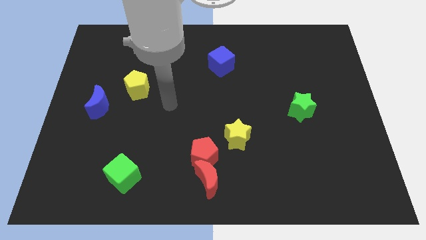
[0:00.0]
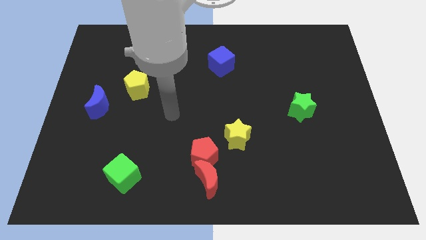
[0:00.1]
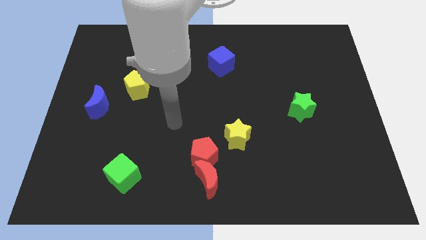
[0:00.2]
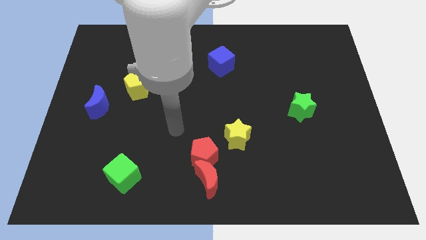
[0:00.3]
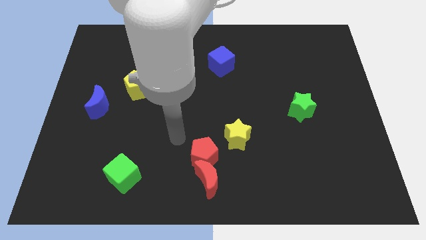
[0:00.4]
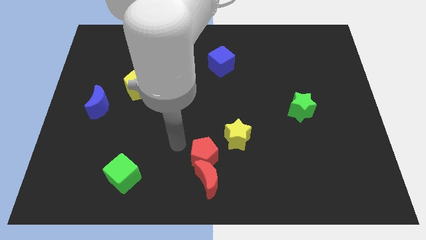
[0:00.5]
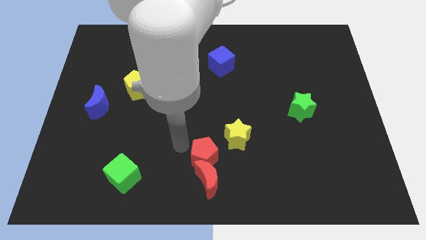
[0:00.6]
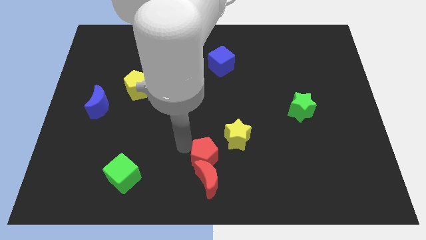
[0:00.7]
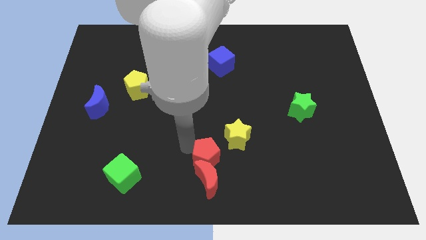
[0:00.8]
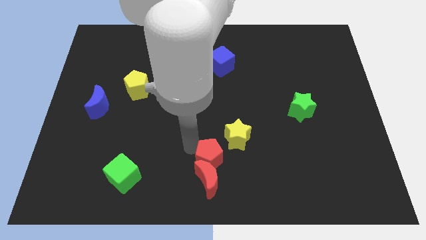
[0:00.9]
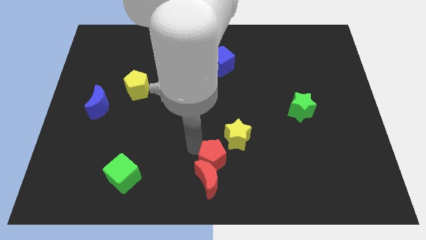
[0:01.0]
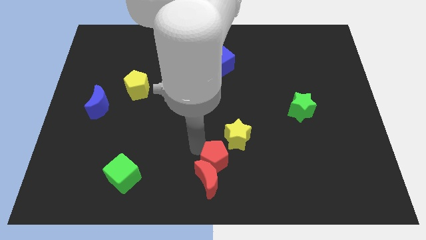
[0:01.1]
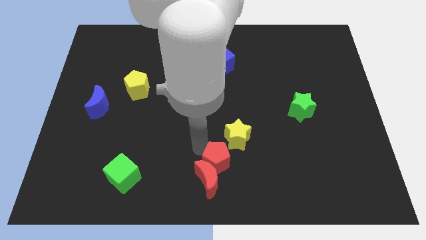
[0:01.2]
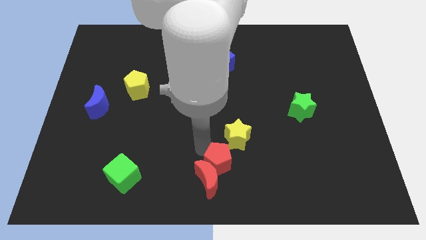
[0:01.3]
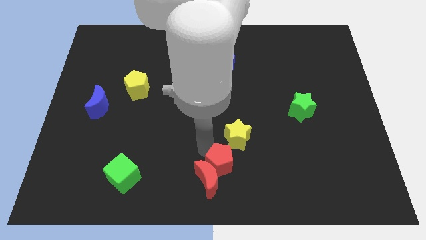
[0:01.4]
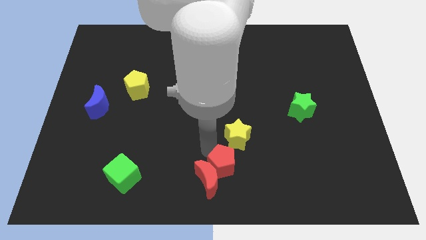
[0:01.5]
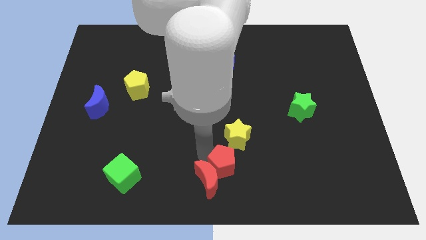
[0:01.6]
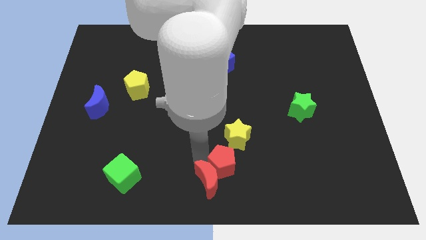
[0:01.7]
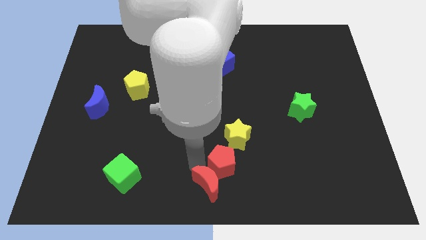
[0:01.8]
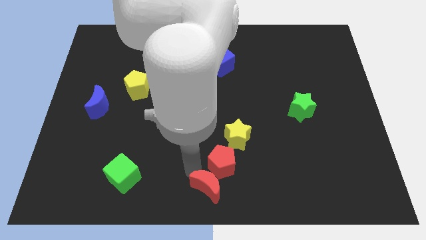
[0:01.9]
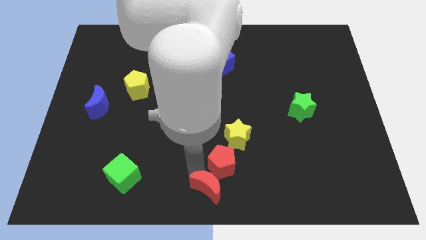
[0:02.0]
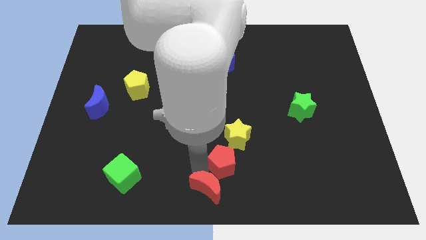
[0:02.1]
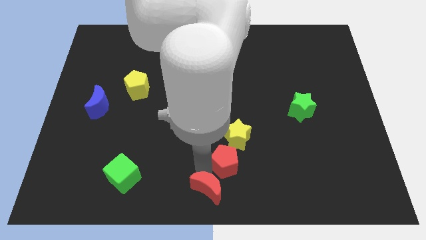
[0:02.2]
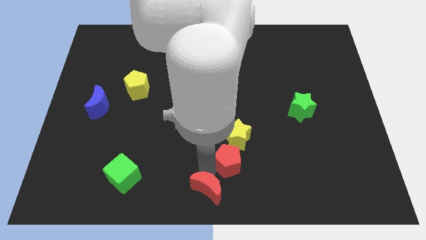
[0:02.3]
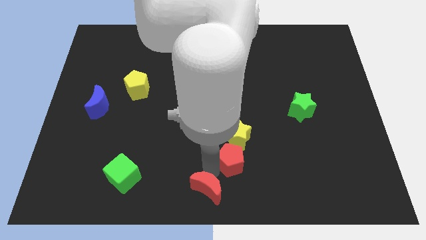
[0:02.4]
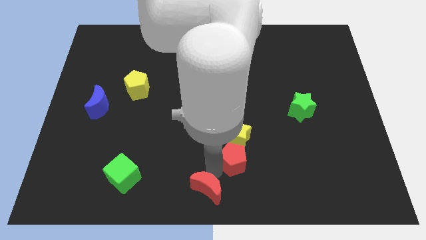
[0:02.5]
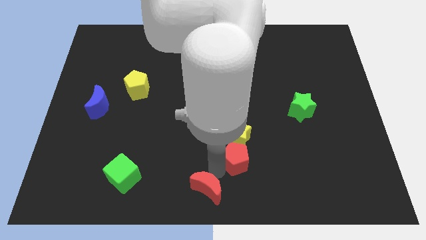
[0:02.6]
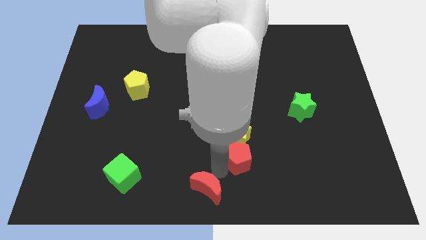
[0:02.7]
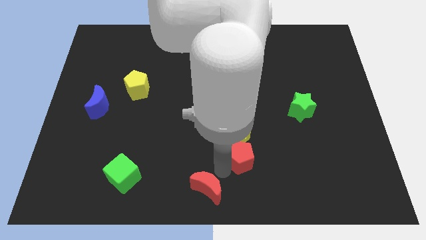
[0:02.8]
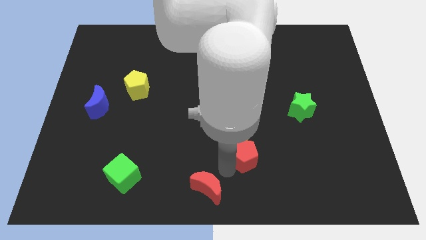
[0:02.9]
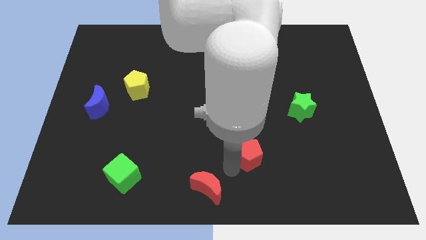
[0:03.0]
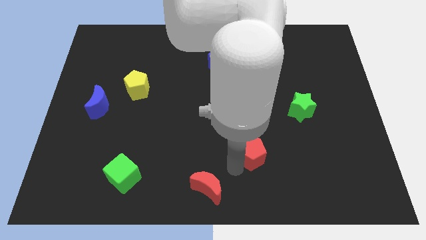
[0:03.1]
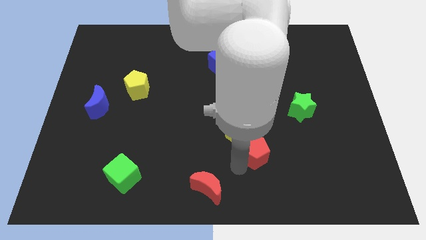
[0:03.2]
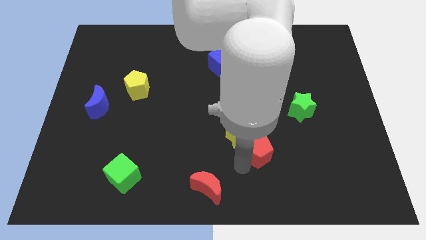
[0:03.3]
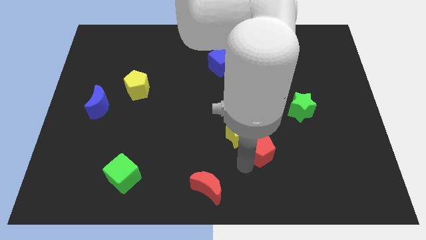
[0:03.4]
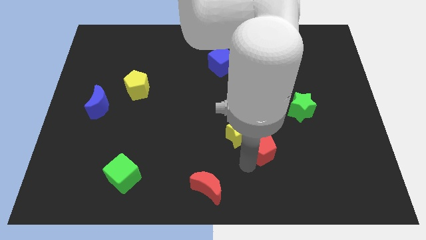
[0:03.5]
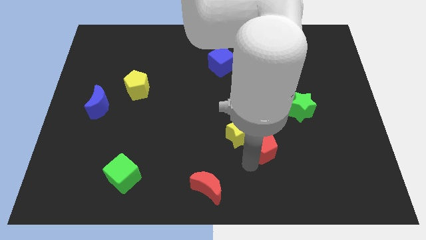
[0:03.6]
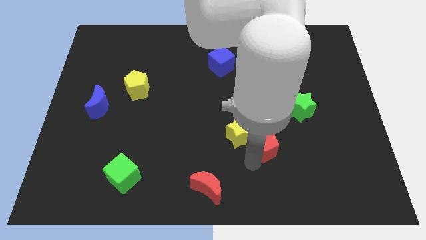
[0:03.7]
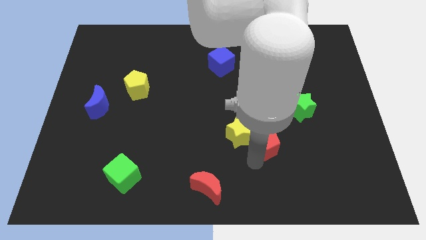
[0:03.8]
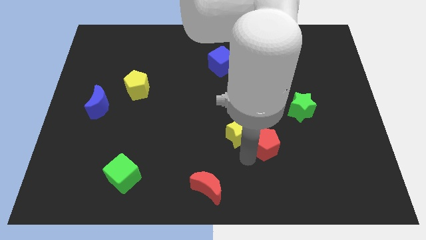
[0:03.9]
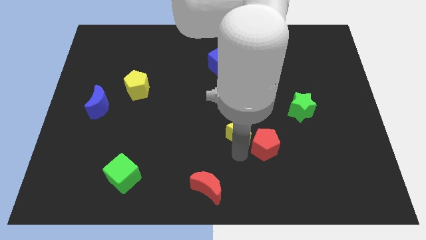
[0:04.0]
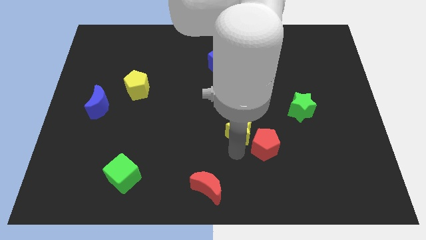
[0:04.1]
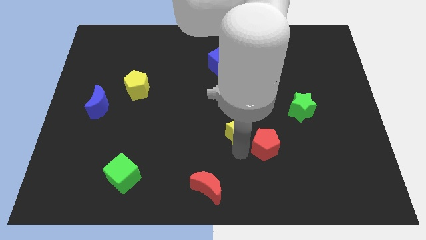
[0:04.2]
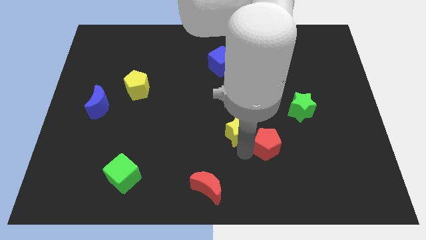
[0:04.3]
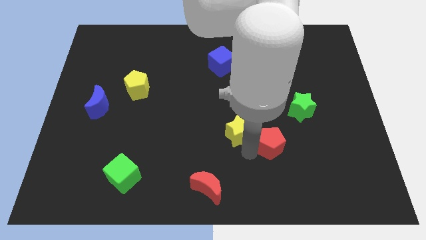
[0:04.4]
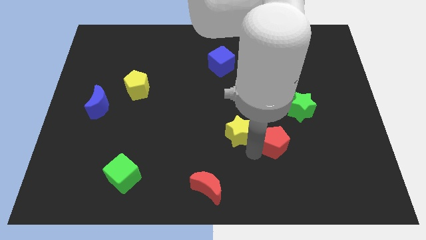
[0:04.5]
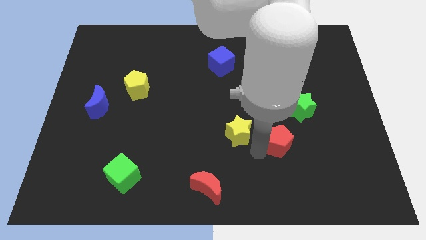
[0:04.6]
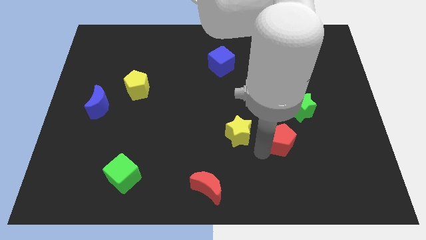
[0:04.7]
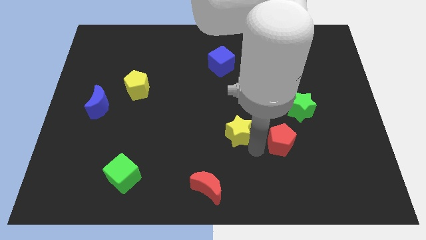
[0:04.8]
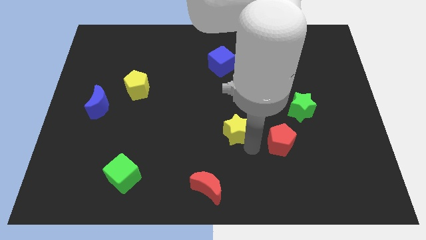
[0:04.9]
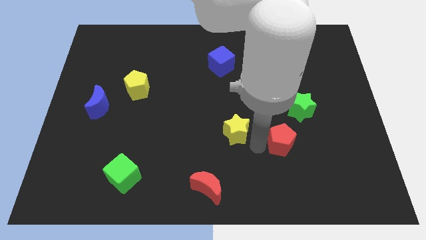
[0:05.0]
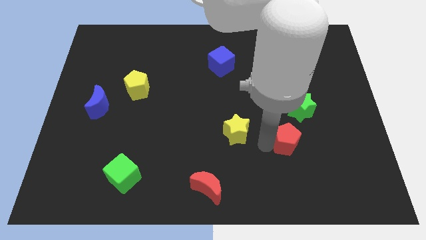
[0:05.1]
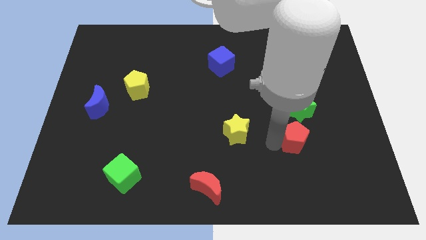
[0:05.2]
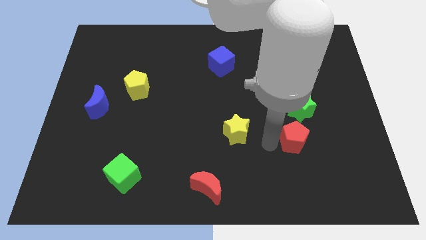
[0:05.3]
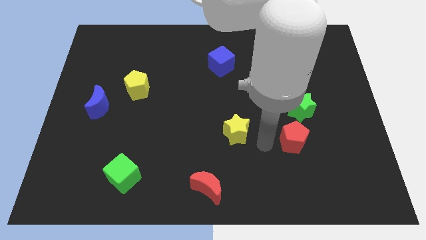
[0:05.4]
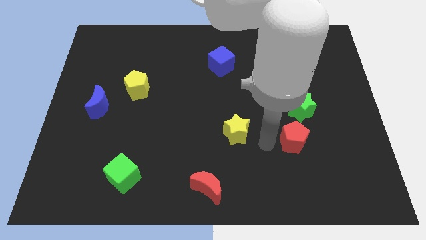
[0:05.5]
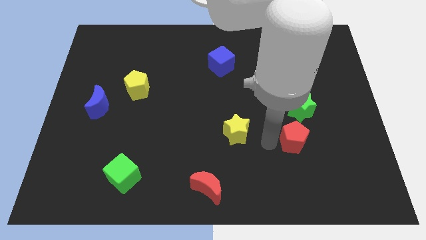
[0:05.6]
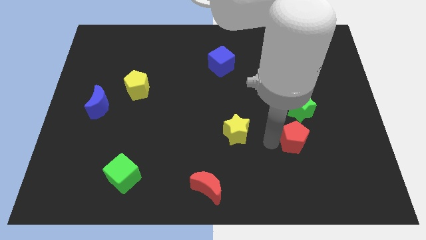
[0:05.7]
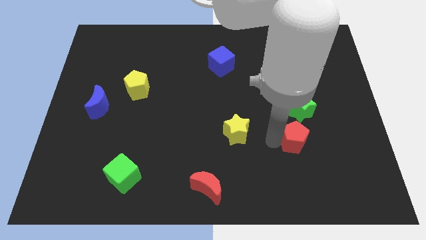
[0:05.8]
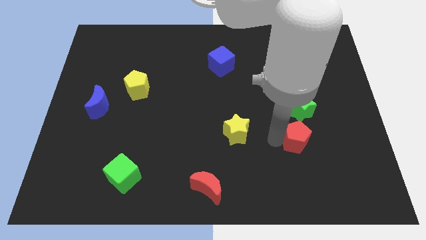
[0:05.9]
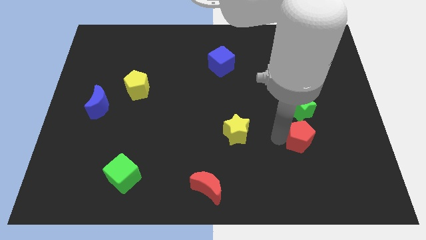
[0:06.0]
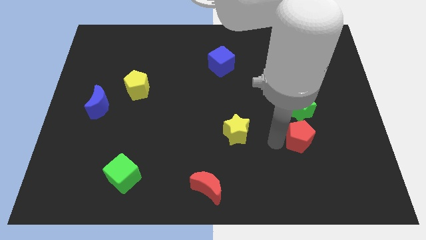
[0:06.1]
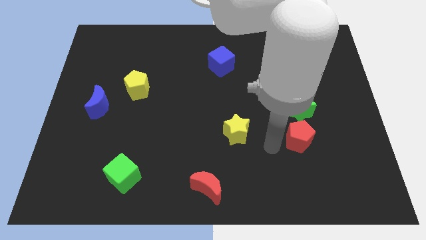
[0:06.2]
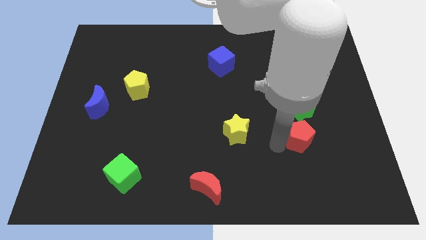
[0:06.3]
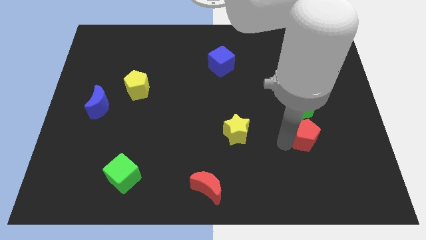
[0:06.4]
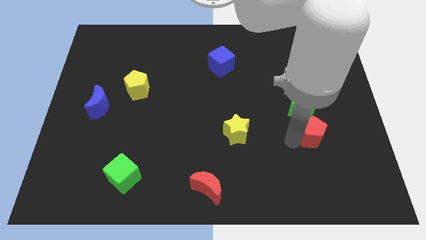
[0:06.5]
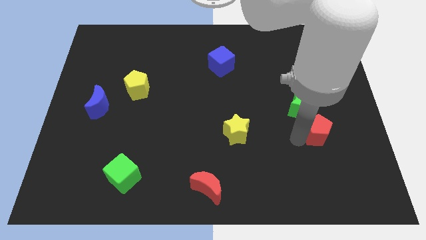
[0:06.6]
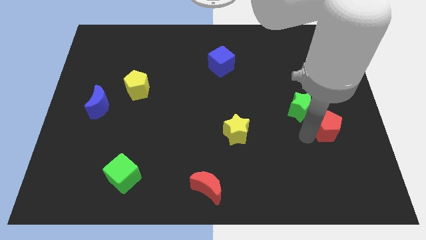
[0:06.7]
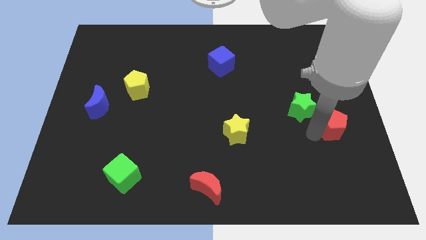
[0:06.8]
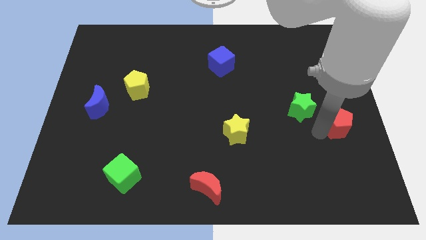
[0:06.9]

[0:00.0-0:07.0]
move the red pentagon to the right side
